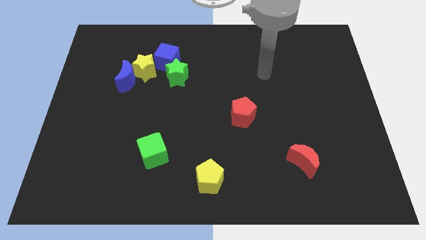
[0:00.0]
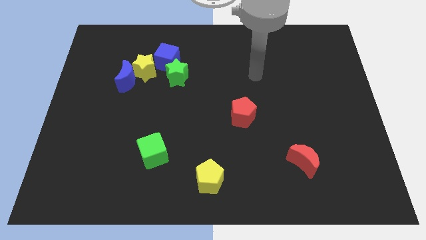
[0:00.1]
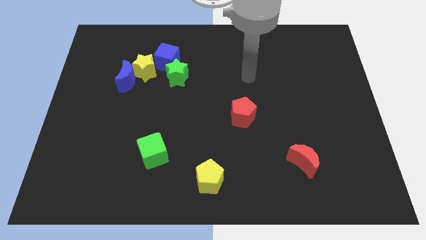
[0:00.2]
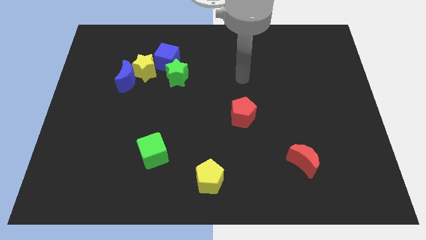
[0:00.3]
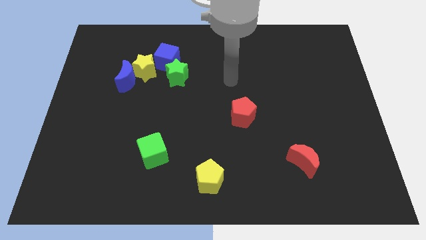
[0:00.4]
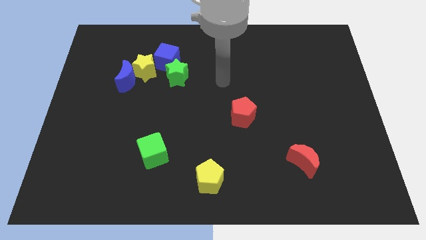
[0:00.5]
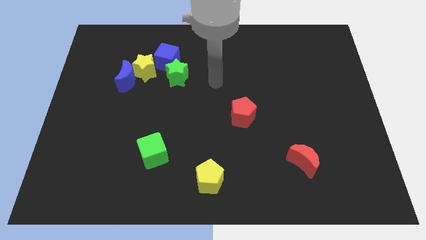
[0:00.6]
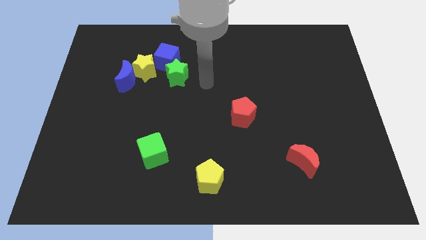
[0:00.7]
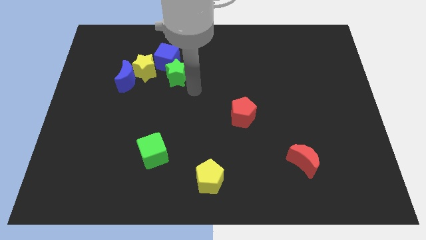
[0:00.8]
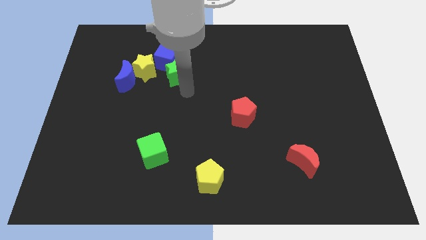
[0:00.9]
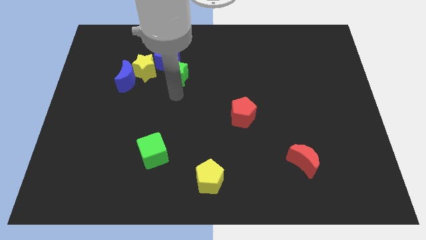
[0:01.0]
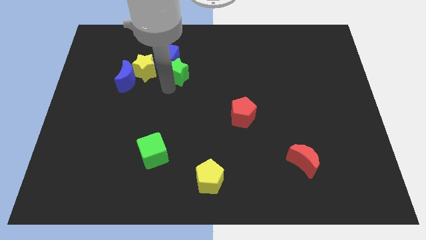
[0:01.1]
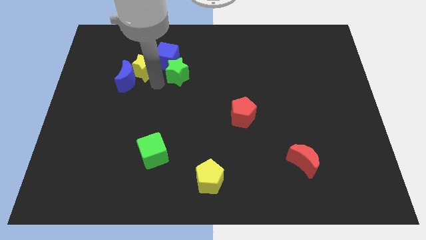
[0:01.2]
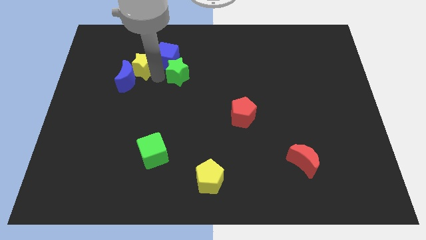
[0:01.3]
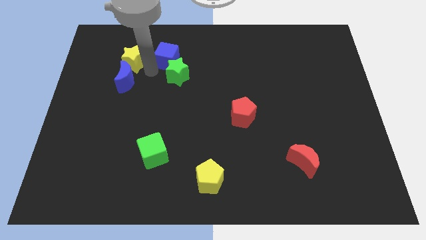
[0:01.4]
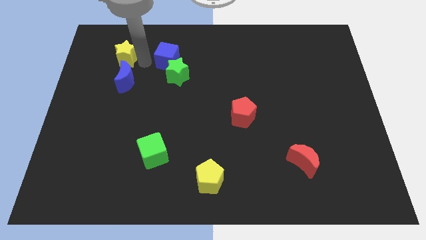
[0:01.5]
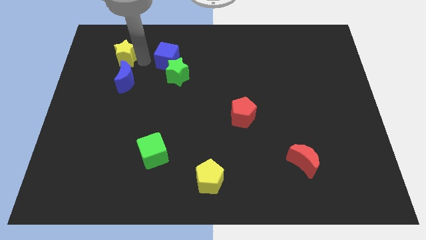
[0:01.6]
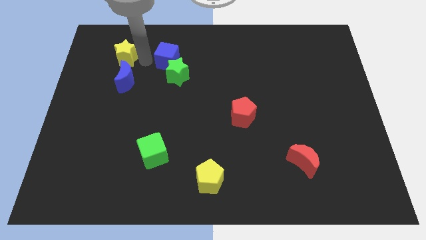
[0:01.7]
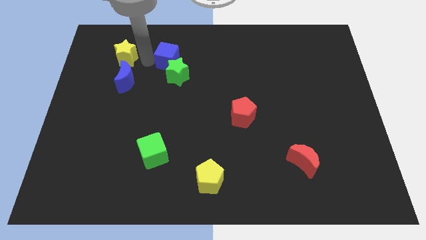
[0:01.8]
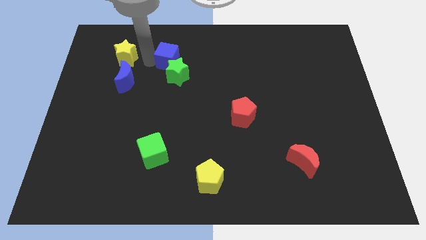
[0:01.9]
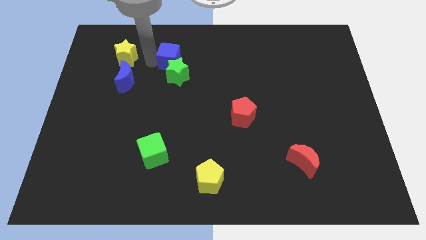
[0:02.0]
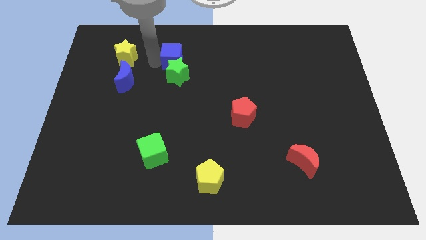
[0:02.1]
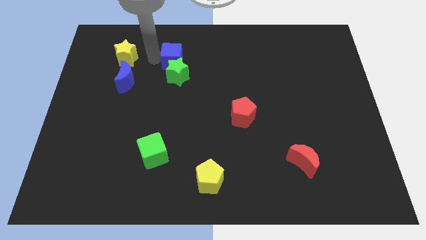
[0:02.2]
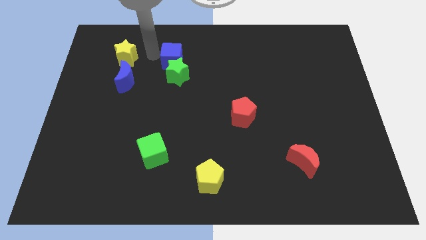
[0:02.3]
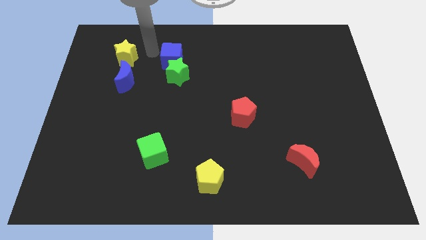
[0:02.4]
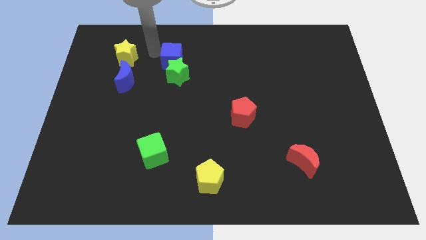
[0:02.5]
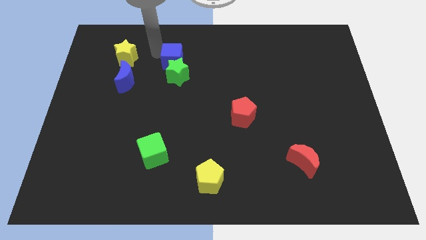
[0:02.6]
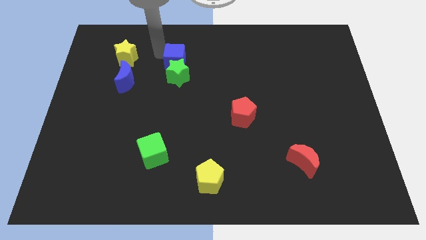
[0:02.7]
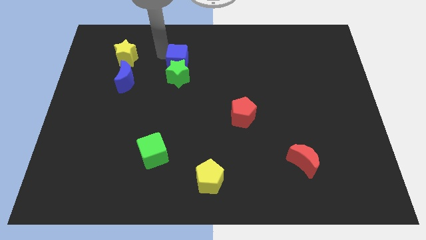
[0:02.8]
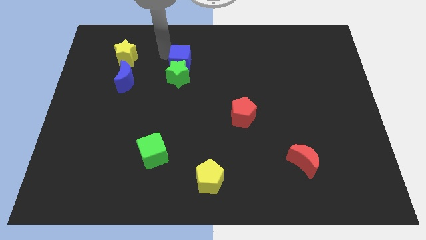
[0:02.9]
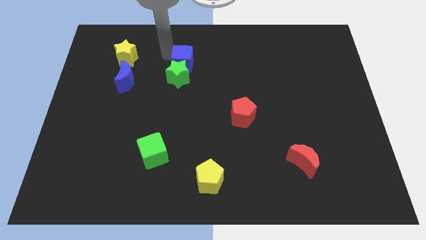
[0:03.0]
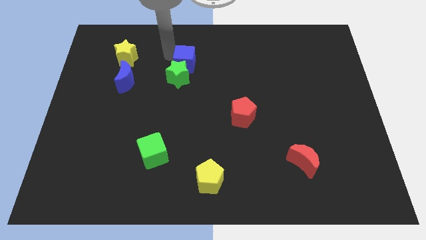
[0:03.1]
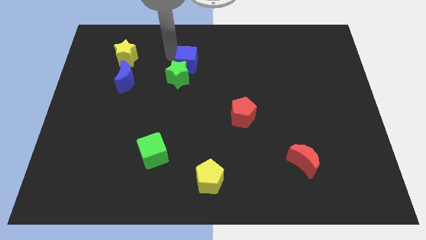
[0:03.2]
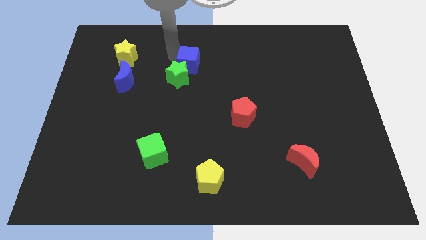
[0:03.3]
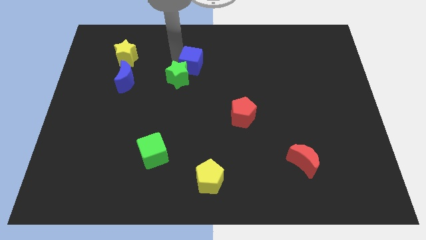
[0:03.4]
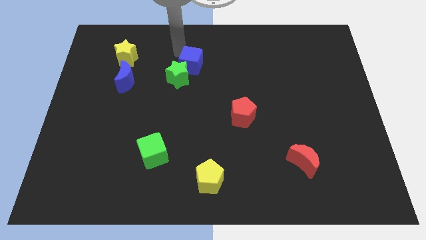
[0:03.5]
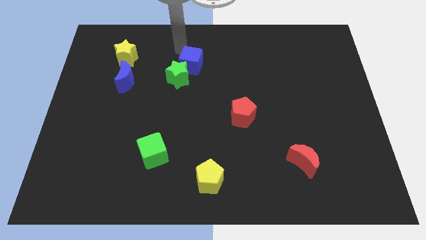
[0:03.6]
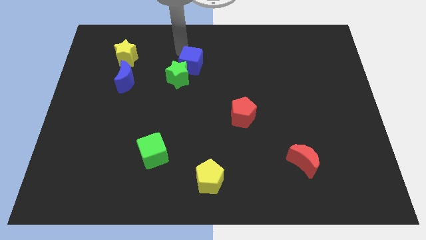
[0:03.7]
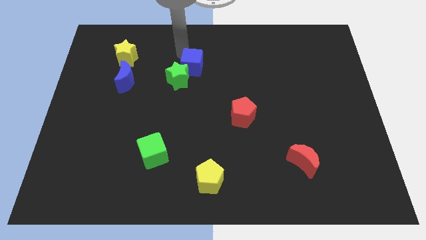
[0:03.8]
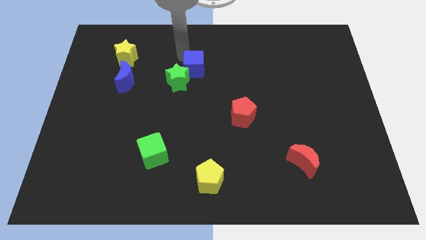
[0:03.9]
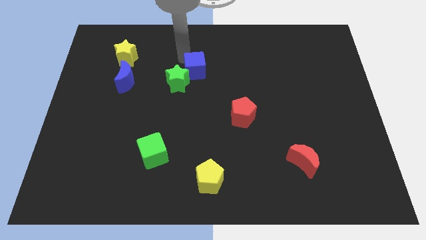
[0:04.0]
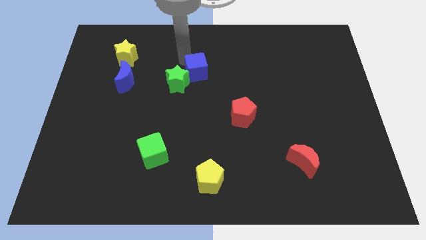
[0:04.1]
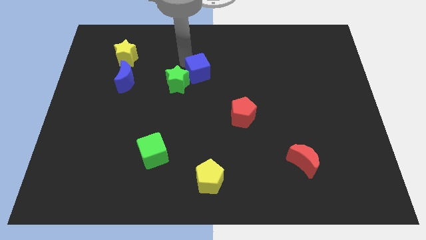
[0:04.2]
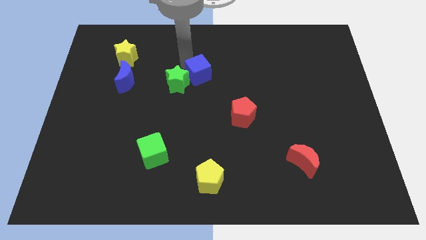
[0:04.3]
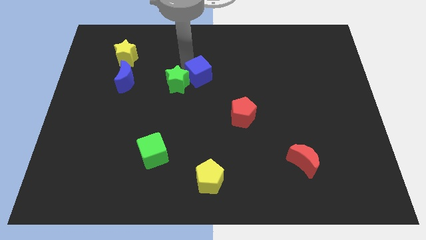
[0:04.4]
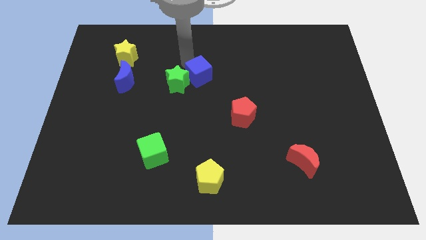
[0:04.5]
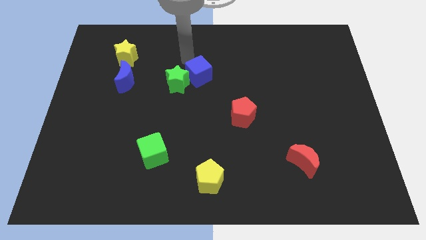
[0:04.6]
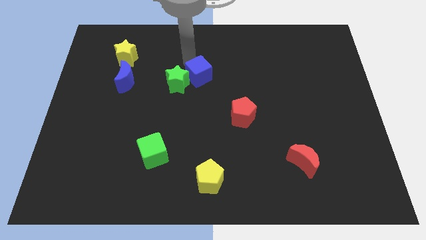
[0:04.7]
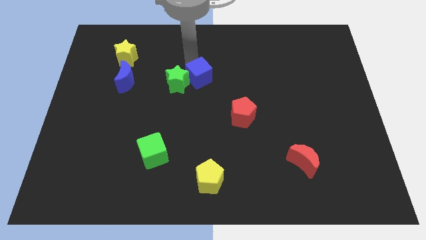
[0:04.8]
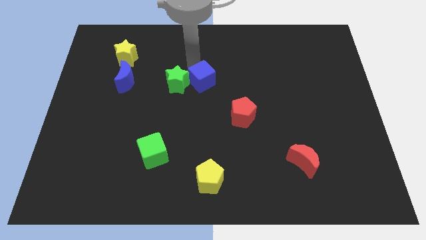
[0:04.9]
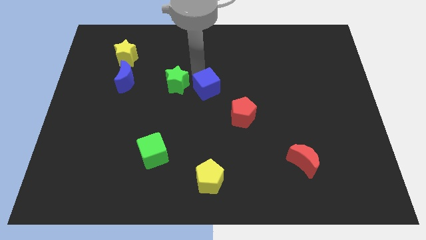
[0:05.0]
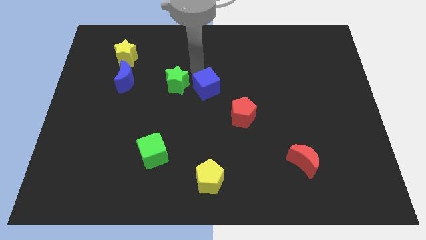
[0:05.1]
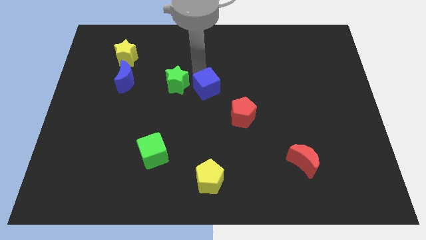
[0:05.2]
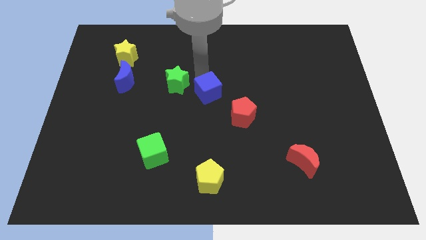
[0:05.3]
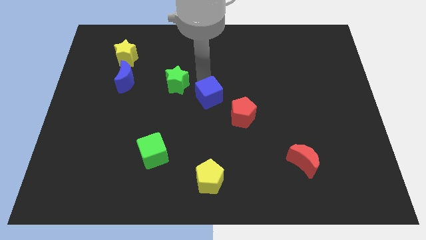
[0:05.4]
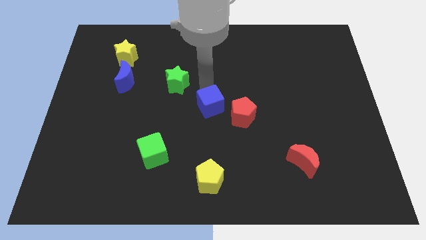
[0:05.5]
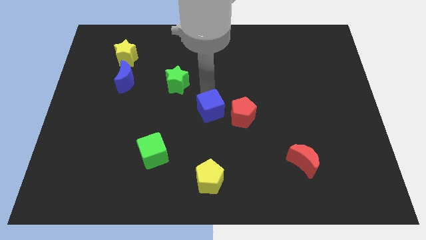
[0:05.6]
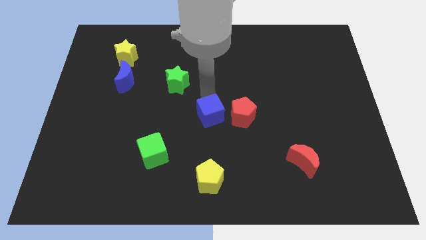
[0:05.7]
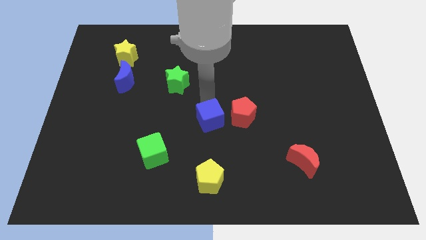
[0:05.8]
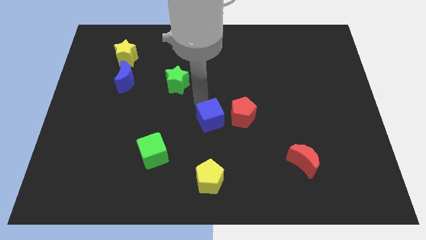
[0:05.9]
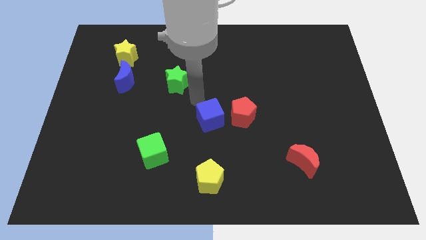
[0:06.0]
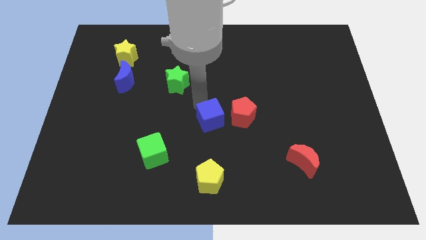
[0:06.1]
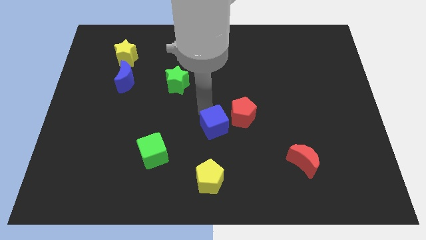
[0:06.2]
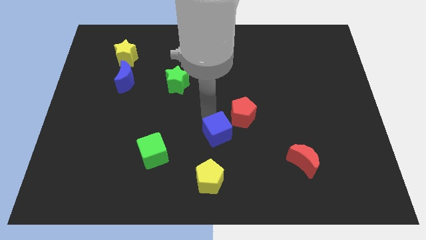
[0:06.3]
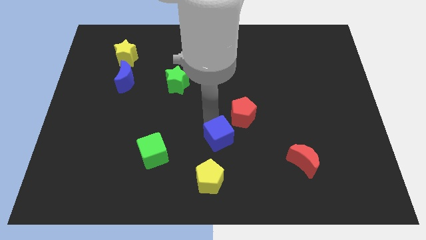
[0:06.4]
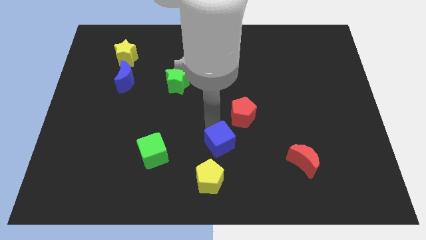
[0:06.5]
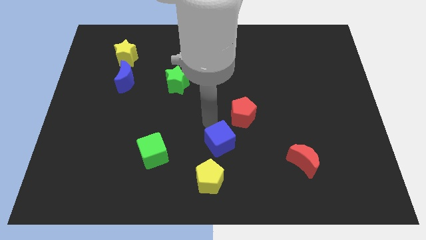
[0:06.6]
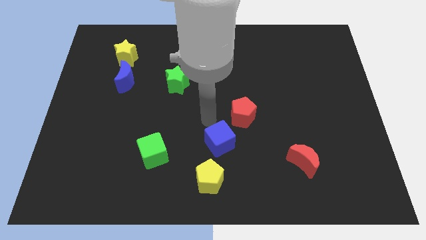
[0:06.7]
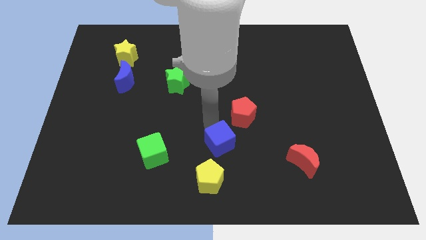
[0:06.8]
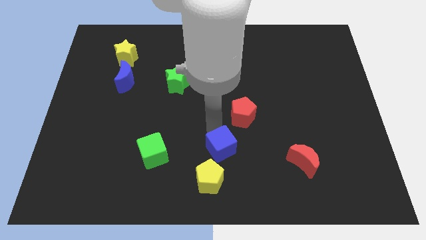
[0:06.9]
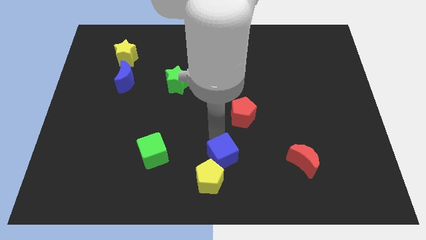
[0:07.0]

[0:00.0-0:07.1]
slide the blue cube to the bottom side
